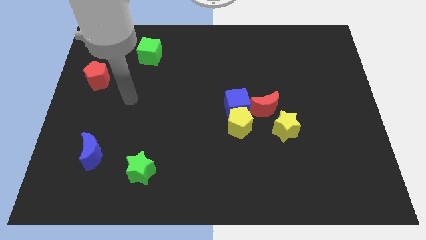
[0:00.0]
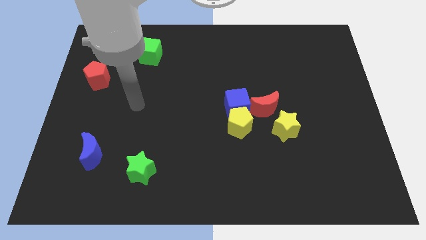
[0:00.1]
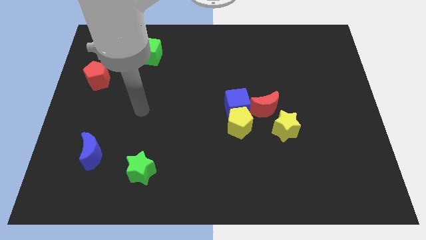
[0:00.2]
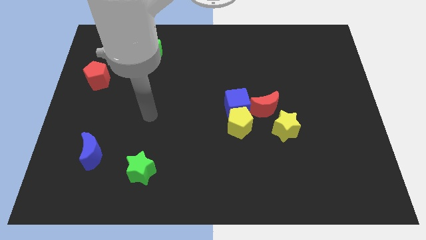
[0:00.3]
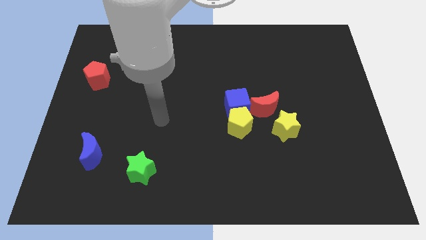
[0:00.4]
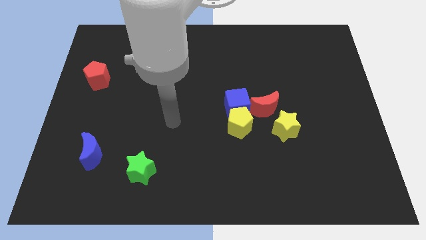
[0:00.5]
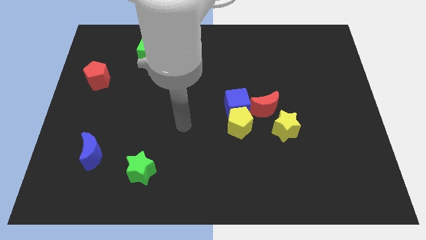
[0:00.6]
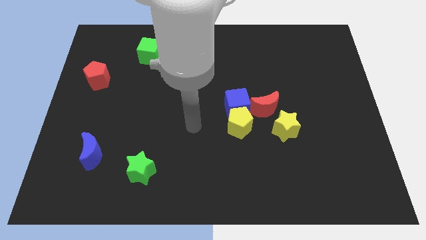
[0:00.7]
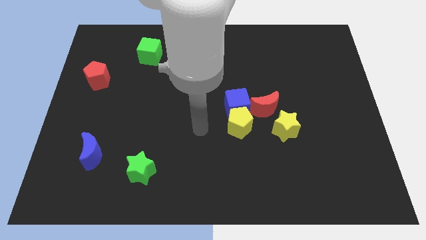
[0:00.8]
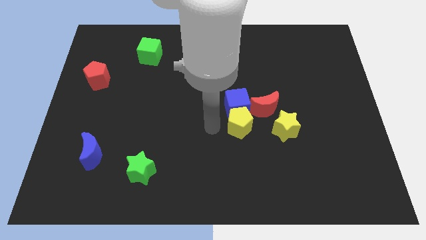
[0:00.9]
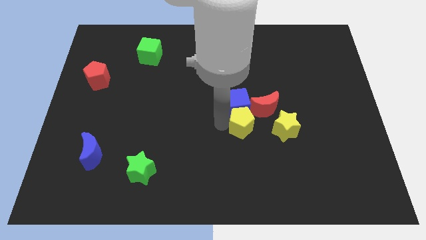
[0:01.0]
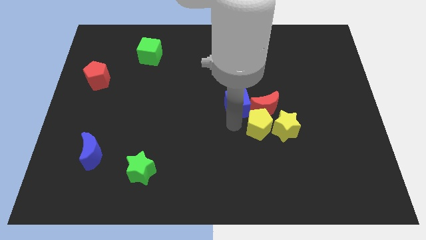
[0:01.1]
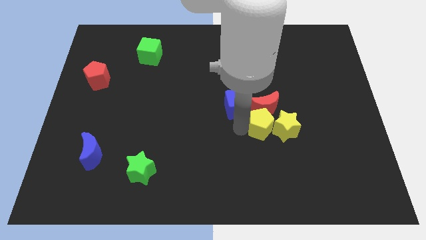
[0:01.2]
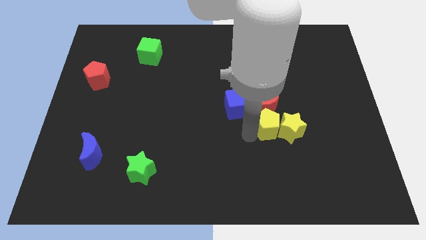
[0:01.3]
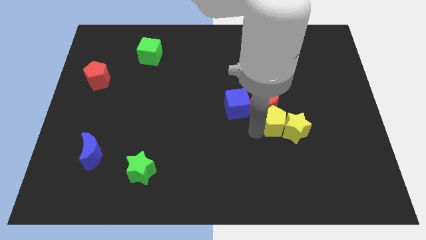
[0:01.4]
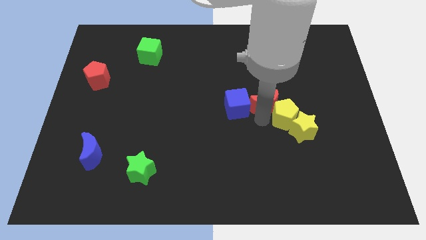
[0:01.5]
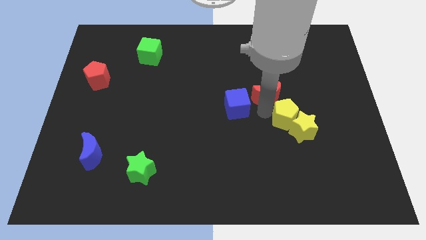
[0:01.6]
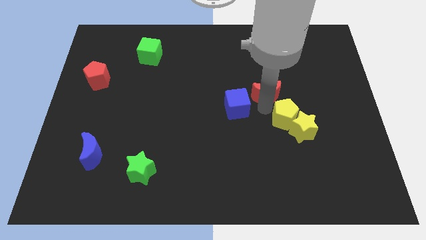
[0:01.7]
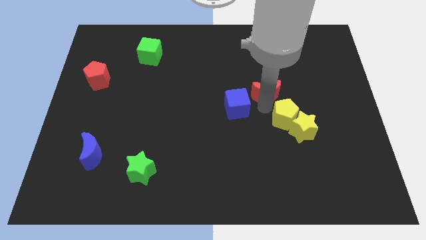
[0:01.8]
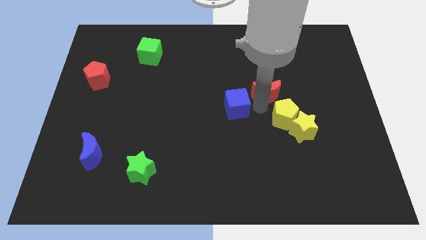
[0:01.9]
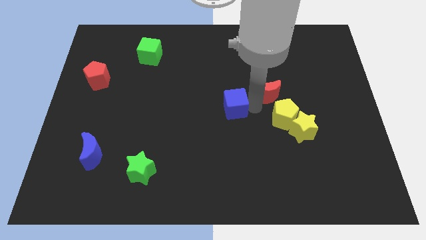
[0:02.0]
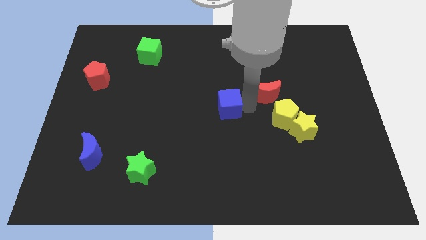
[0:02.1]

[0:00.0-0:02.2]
move the blue cube away from the yellow pentagon and red moon

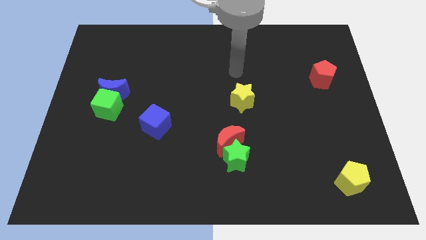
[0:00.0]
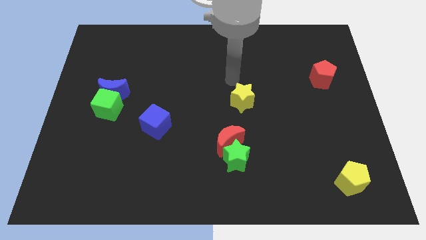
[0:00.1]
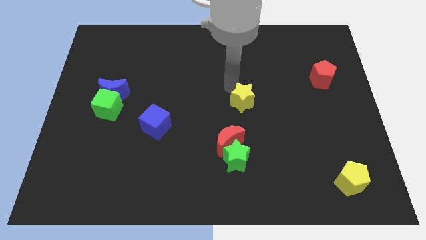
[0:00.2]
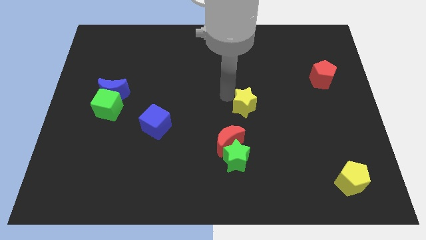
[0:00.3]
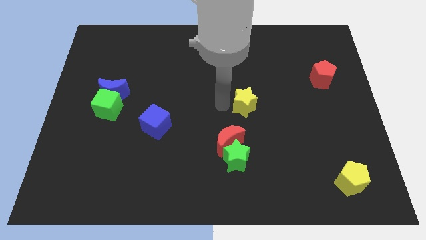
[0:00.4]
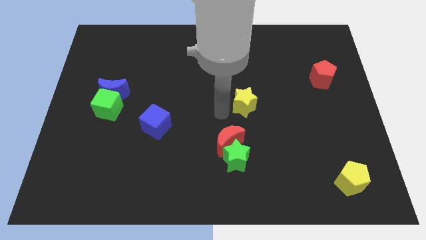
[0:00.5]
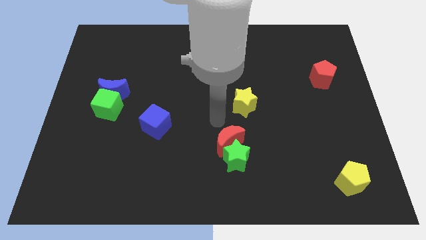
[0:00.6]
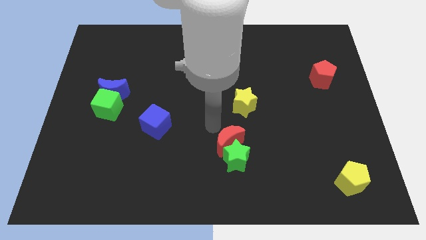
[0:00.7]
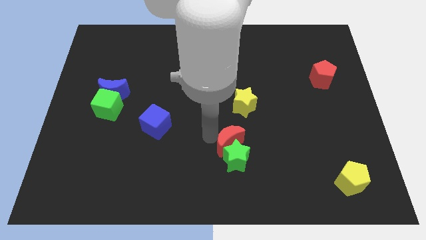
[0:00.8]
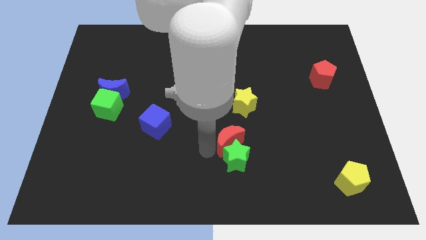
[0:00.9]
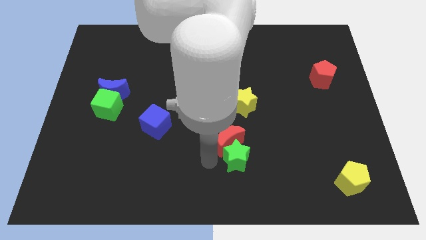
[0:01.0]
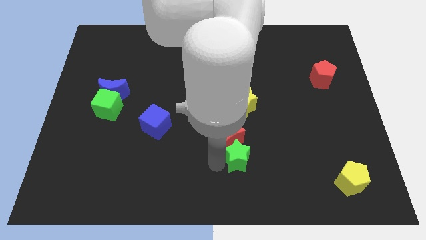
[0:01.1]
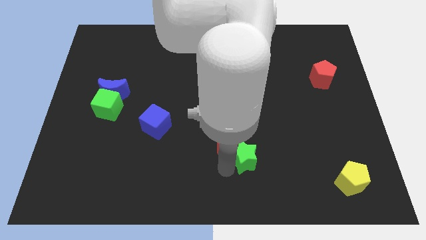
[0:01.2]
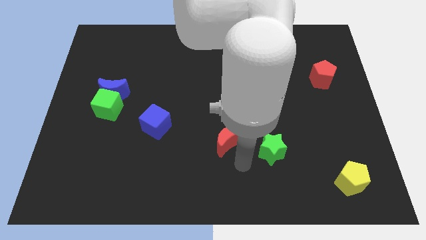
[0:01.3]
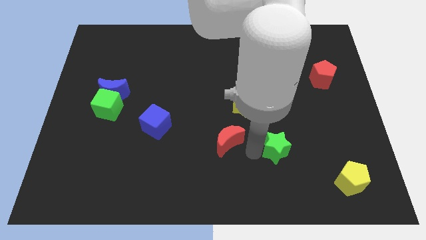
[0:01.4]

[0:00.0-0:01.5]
move the red moon away from the green star

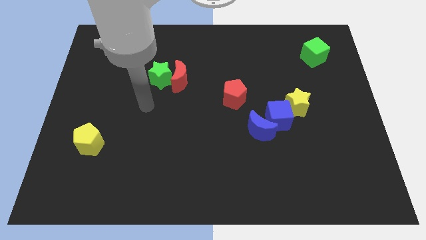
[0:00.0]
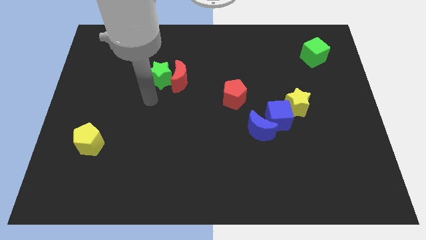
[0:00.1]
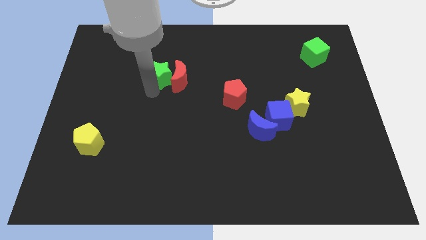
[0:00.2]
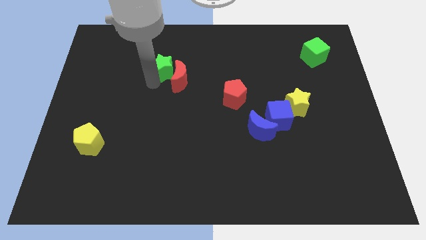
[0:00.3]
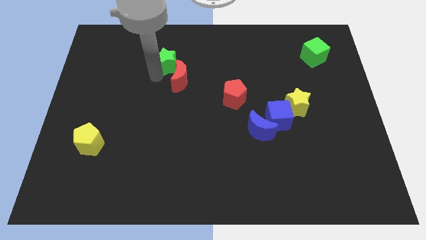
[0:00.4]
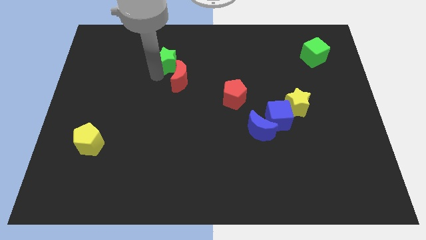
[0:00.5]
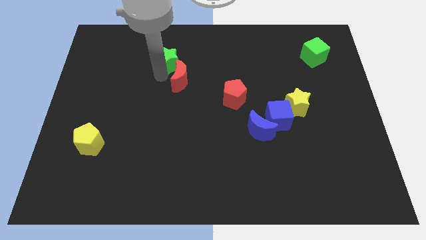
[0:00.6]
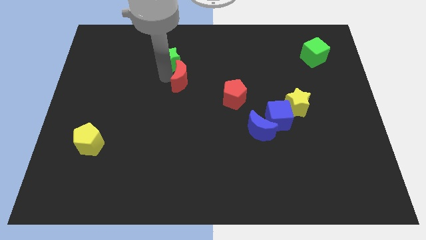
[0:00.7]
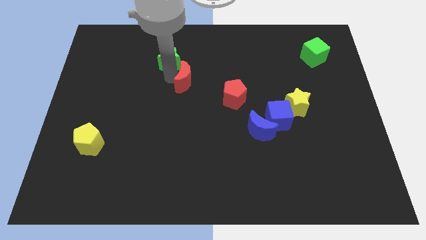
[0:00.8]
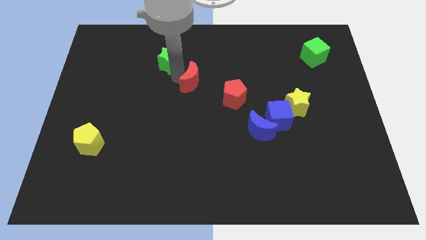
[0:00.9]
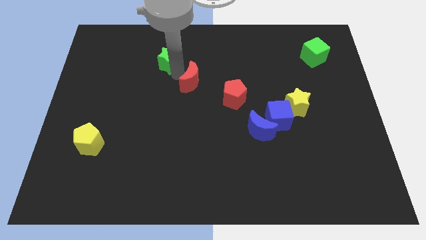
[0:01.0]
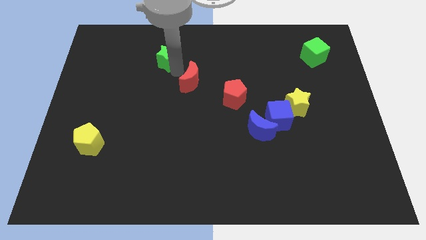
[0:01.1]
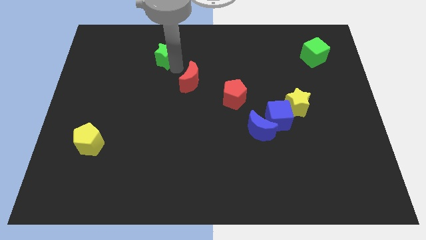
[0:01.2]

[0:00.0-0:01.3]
pull the red moon apart from the green star

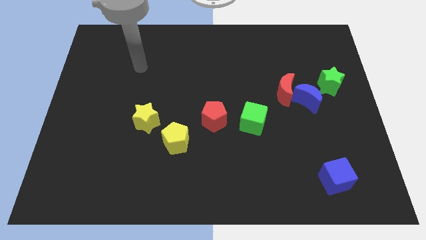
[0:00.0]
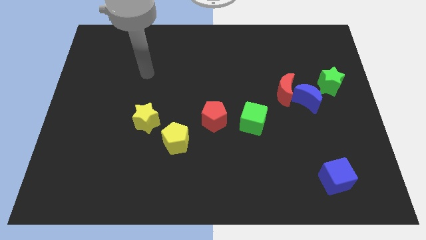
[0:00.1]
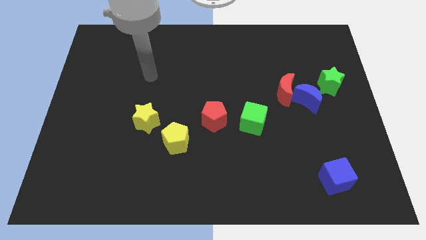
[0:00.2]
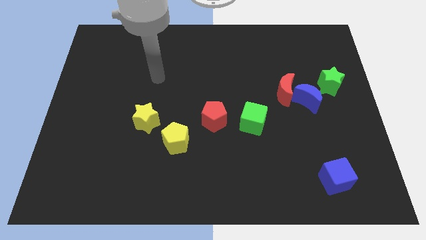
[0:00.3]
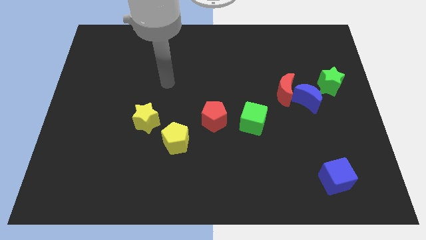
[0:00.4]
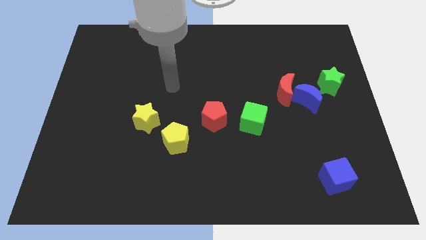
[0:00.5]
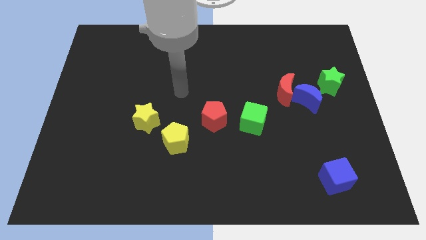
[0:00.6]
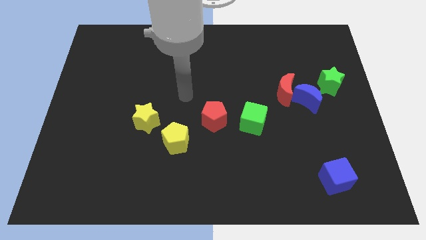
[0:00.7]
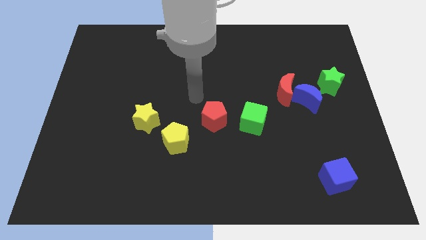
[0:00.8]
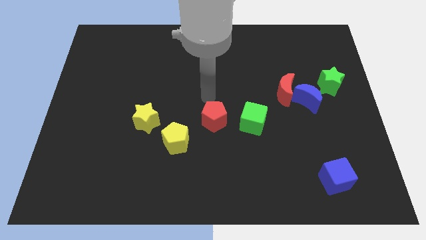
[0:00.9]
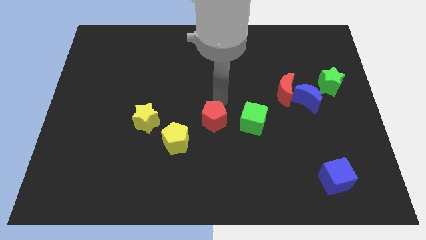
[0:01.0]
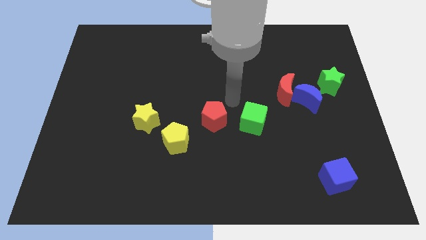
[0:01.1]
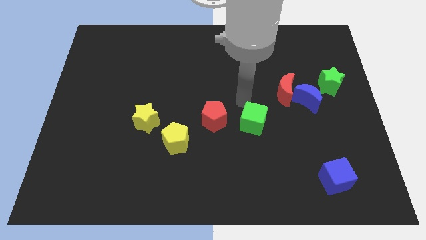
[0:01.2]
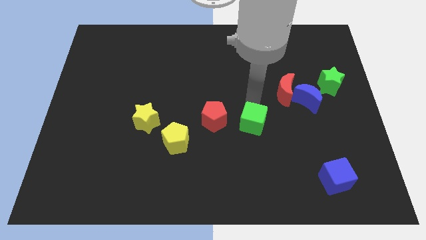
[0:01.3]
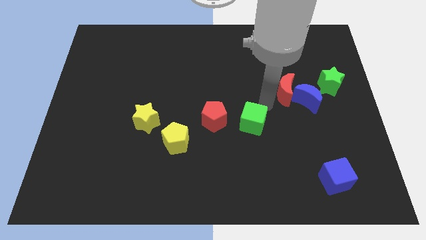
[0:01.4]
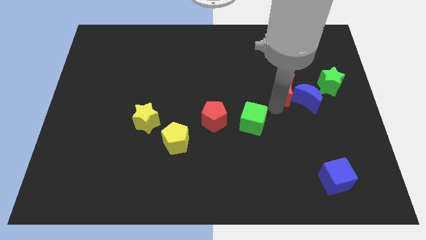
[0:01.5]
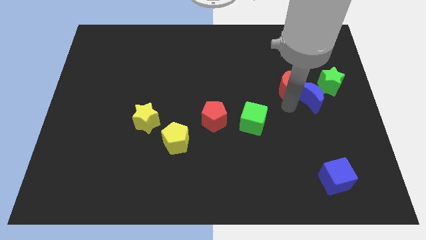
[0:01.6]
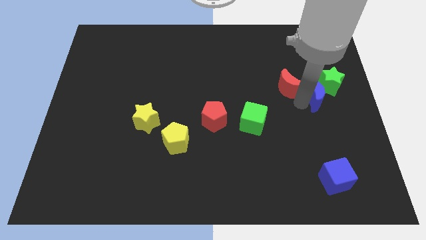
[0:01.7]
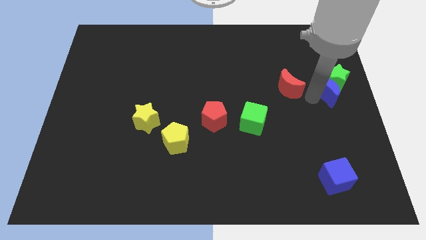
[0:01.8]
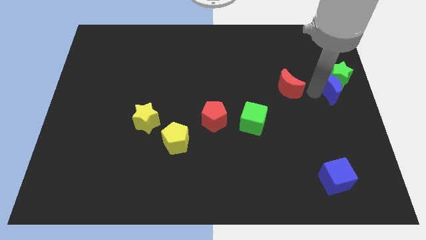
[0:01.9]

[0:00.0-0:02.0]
move the red moon away from the blue moon

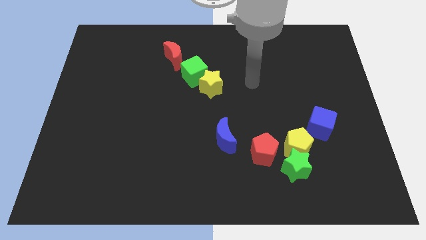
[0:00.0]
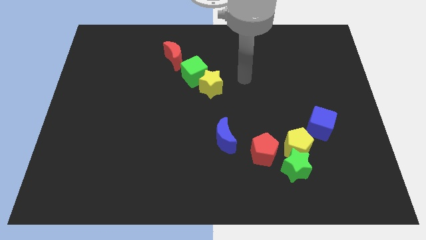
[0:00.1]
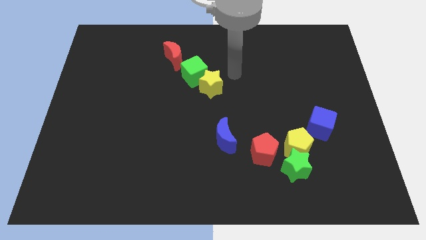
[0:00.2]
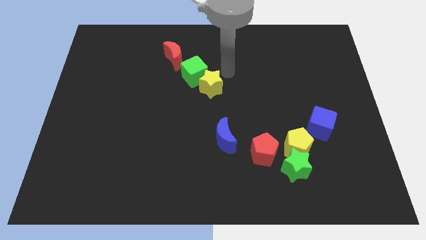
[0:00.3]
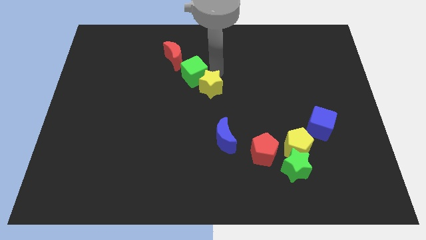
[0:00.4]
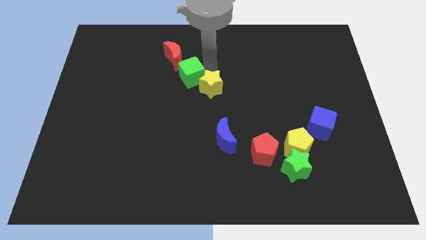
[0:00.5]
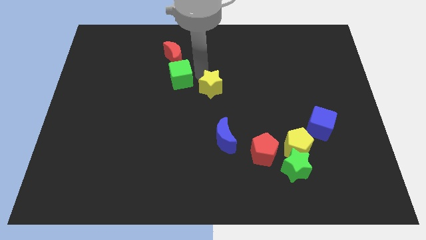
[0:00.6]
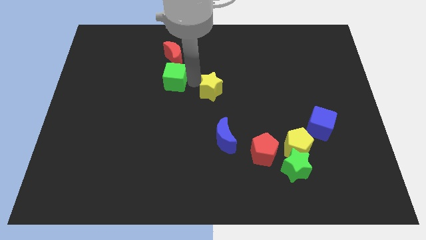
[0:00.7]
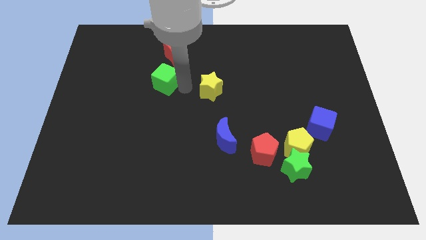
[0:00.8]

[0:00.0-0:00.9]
move the yellow star away from the green cube

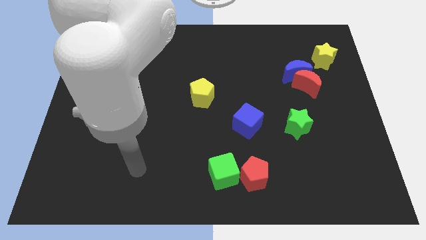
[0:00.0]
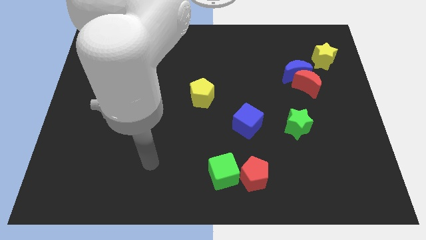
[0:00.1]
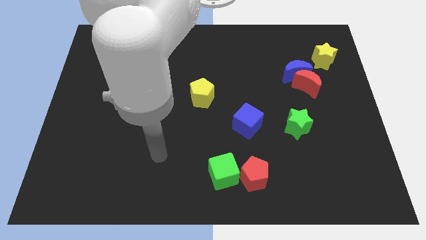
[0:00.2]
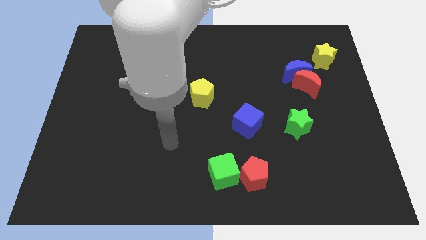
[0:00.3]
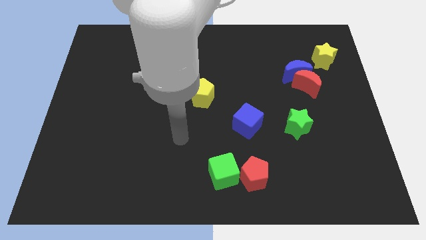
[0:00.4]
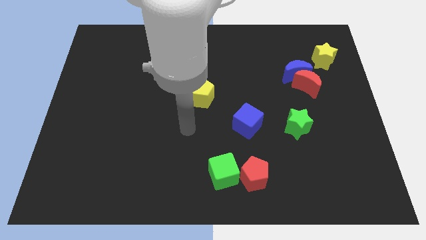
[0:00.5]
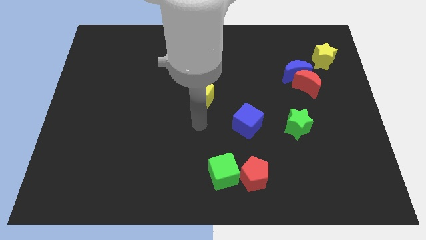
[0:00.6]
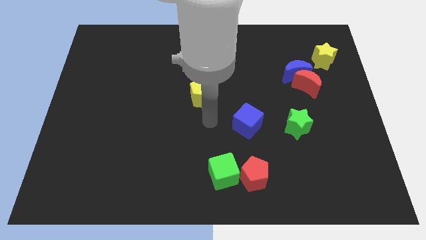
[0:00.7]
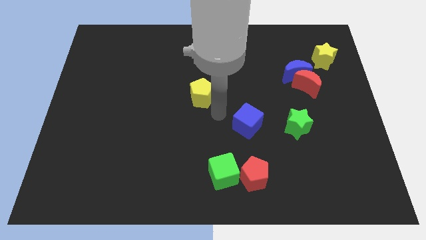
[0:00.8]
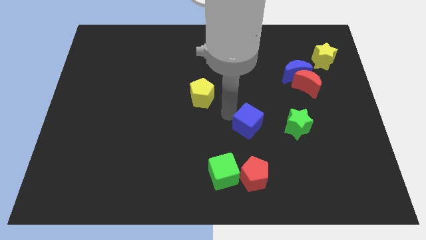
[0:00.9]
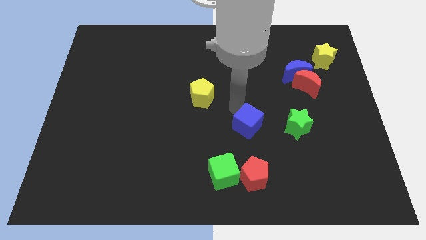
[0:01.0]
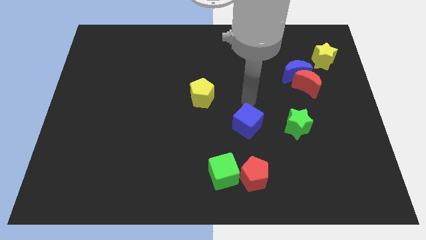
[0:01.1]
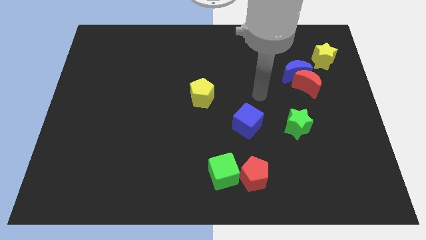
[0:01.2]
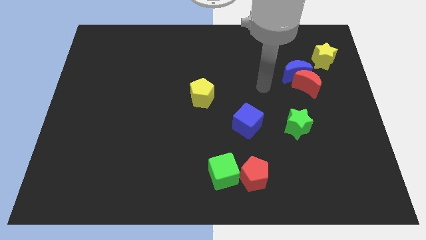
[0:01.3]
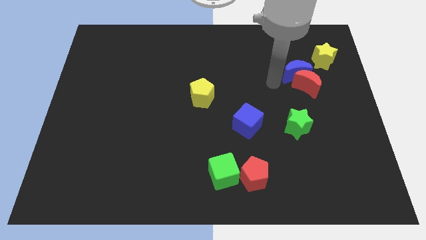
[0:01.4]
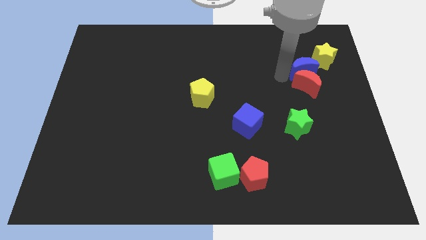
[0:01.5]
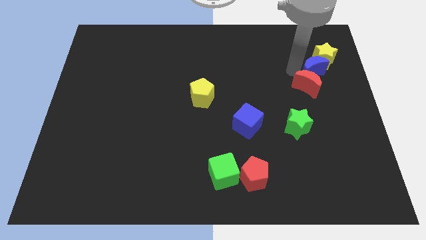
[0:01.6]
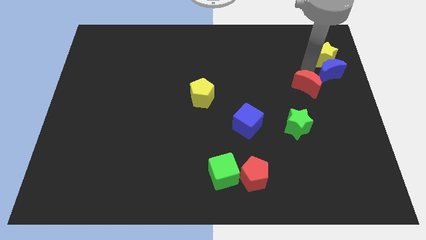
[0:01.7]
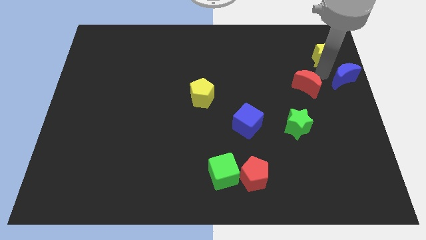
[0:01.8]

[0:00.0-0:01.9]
separate the red moon from the blue moon
